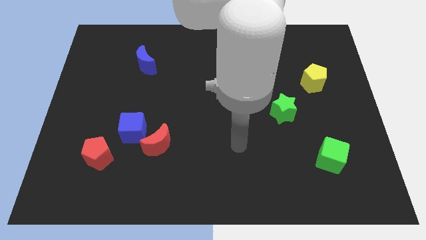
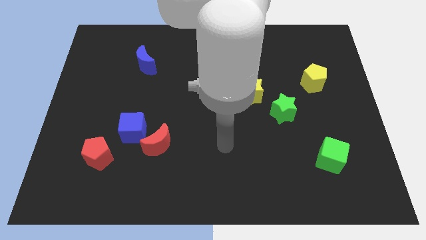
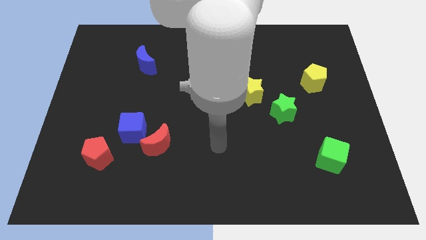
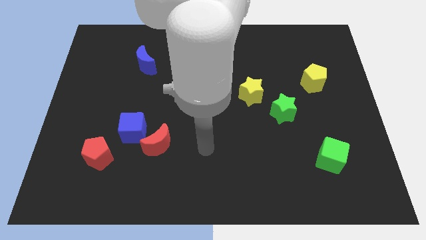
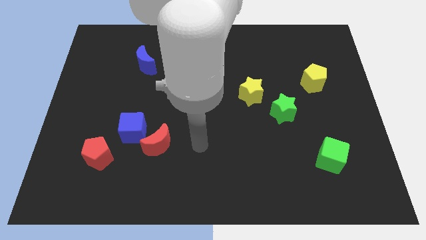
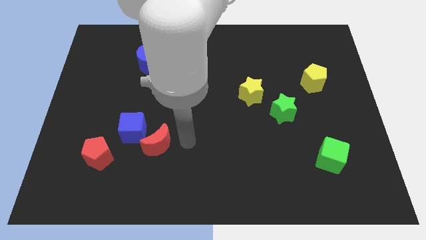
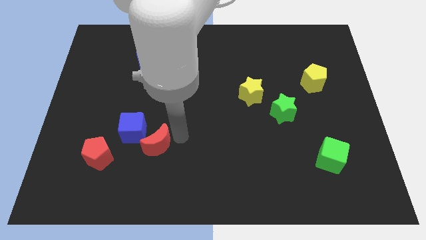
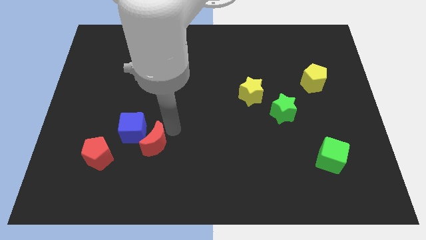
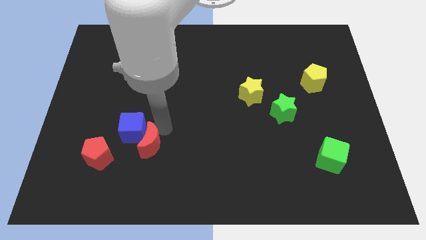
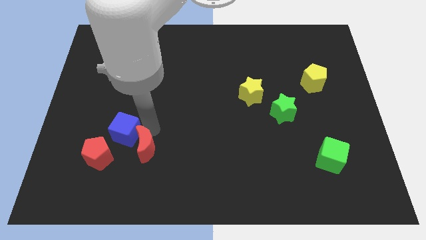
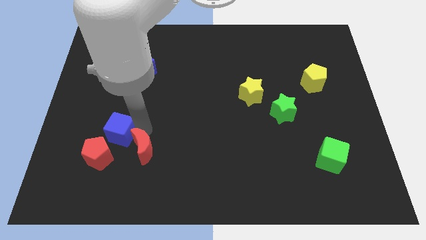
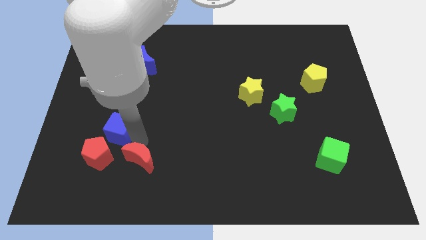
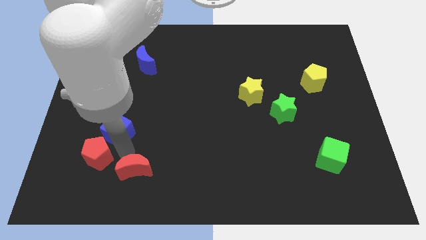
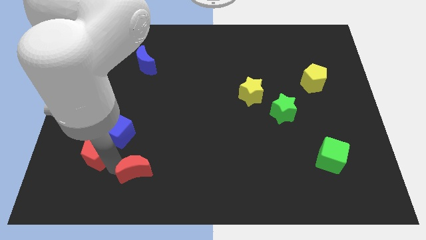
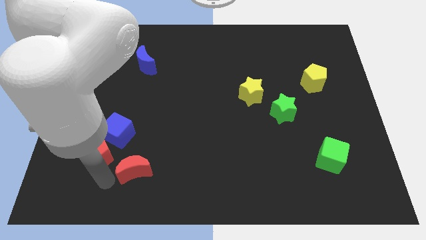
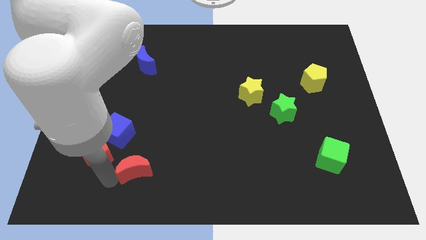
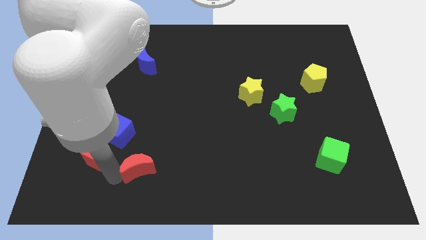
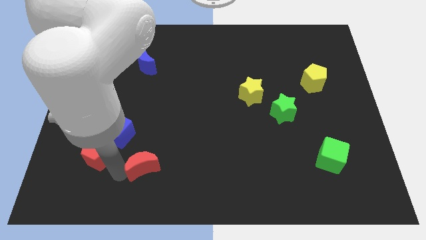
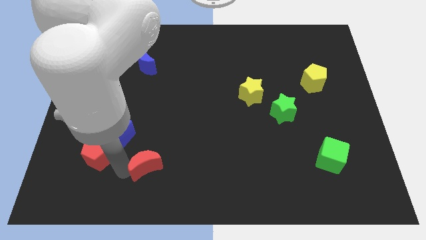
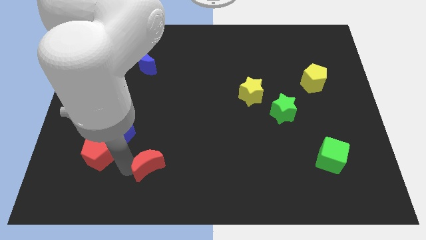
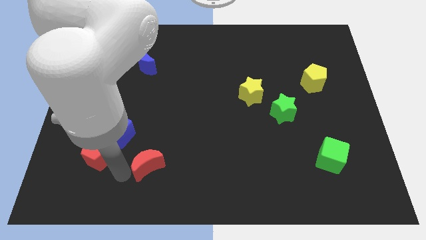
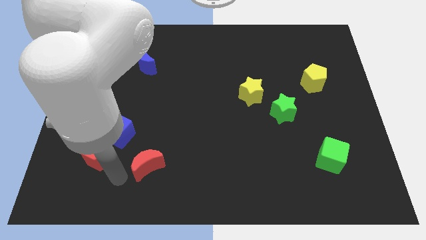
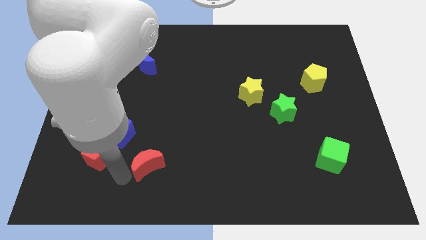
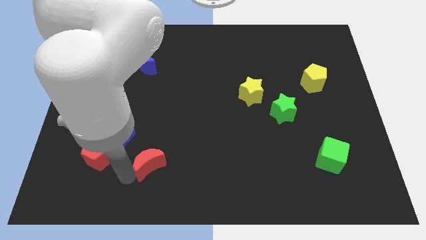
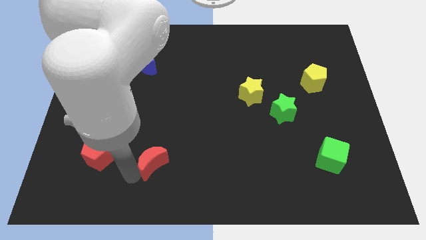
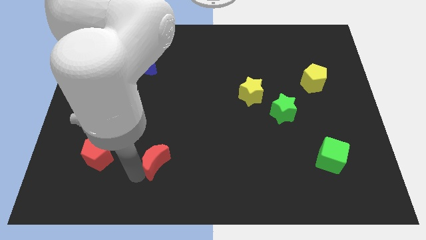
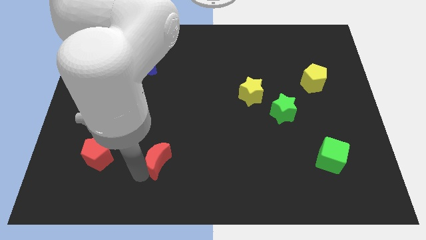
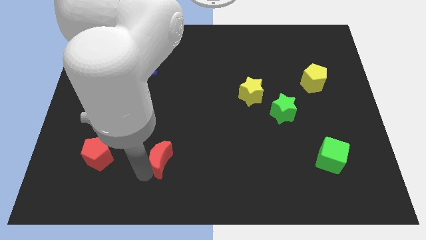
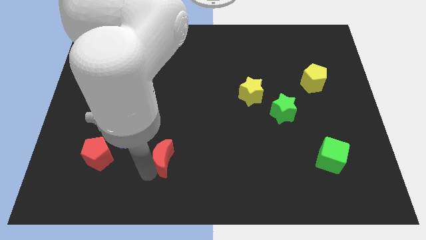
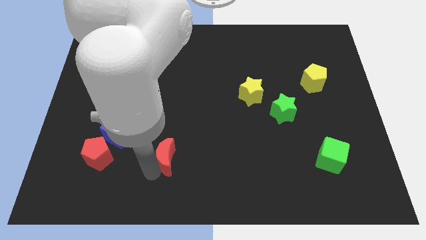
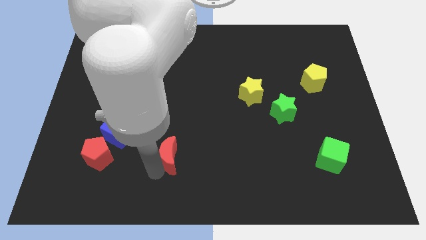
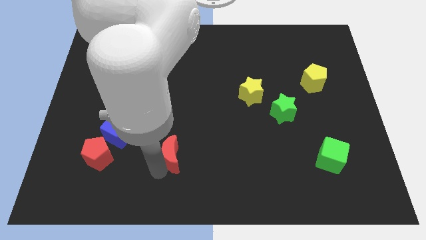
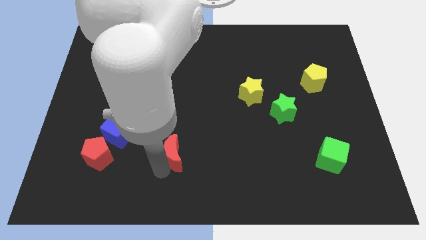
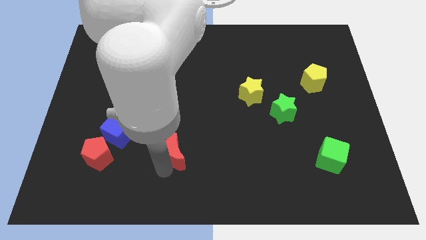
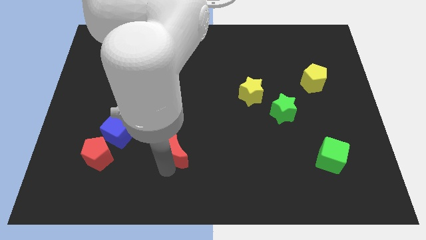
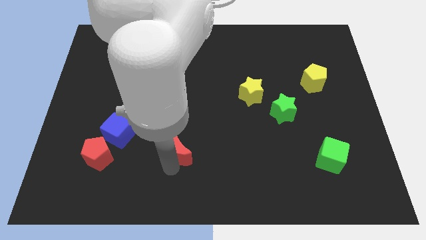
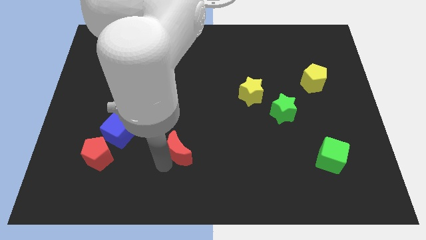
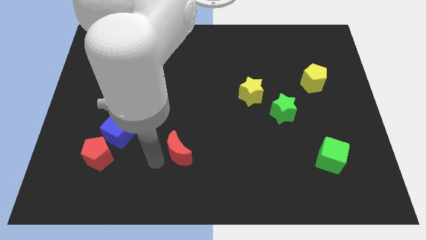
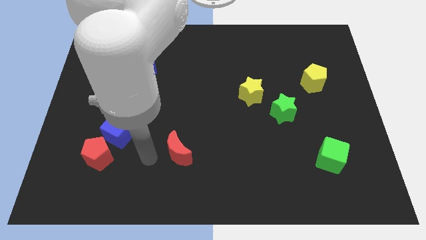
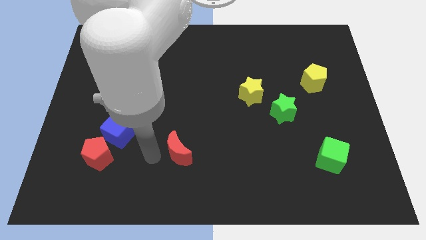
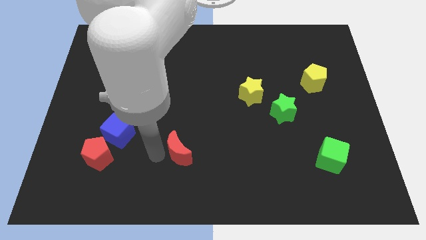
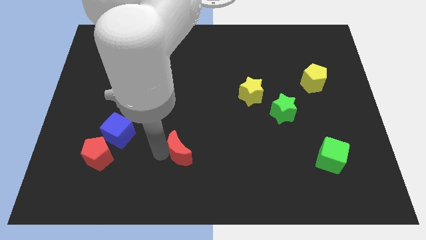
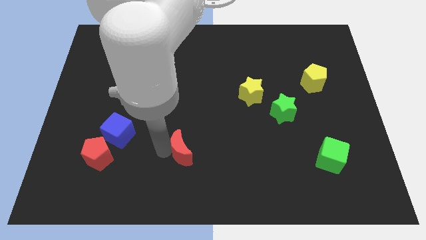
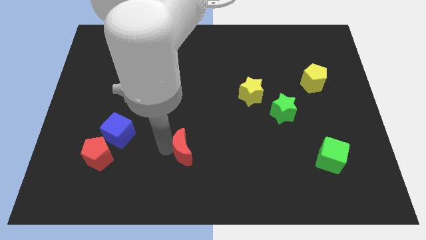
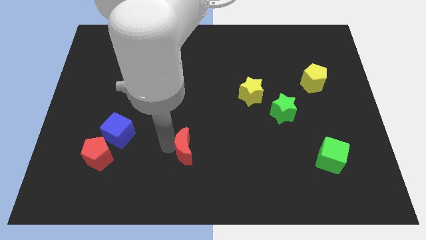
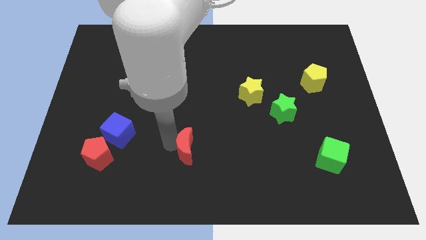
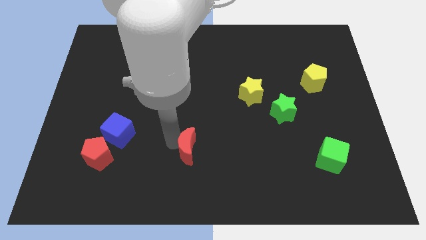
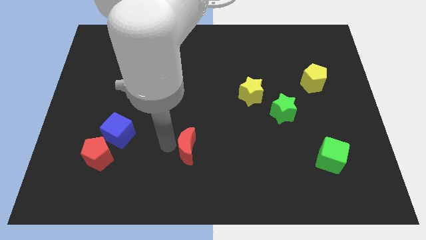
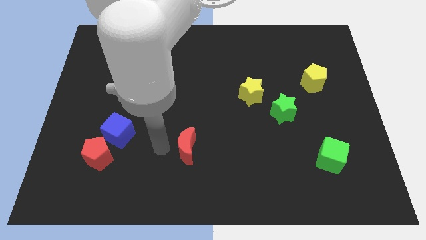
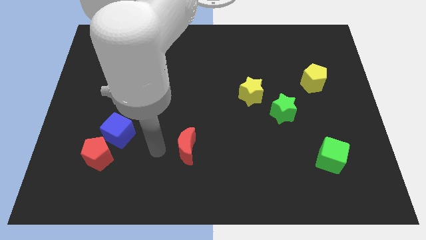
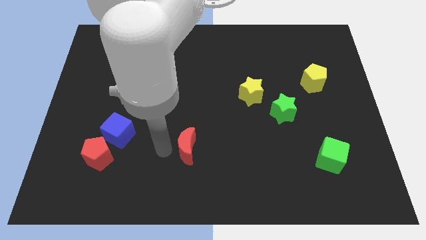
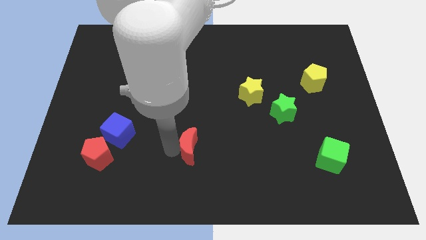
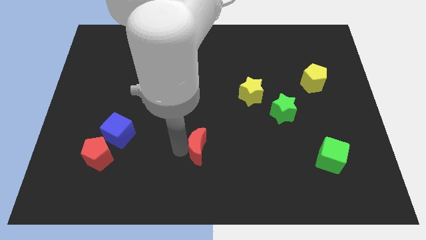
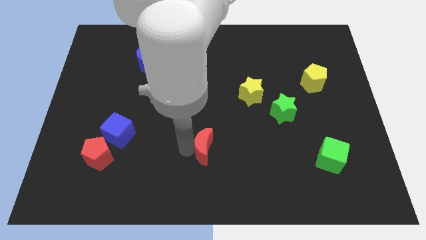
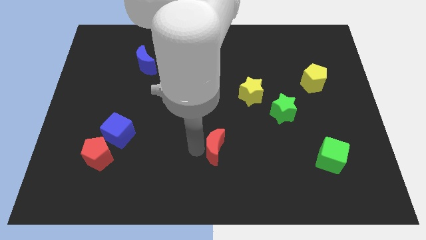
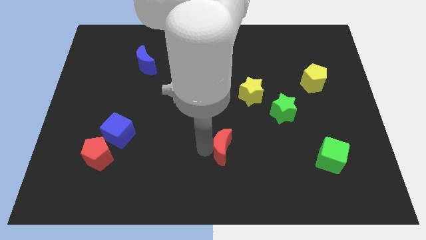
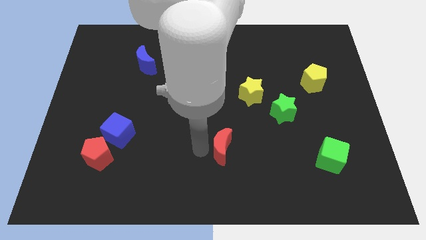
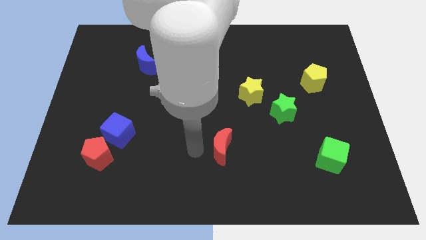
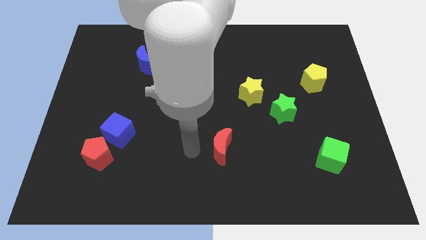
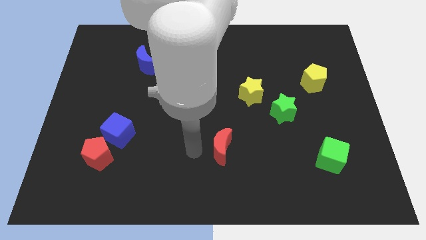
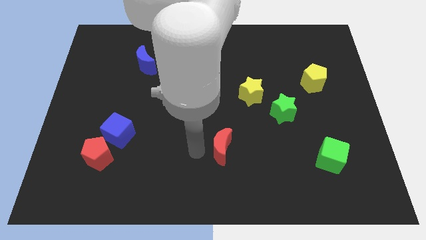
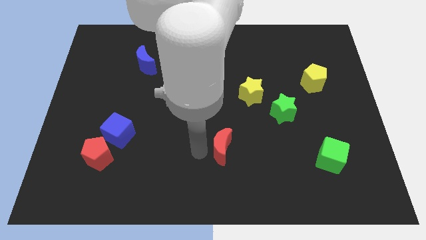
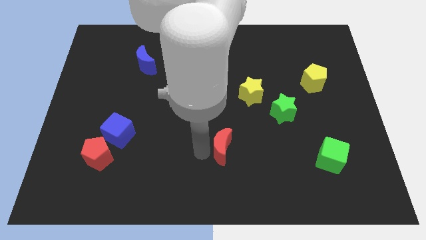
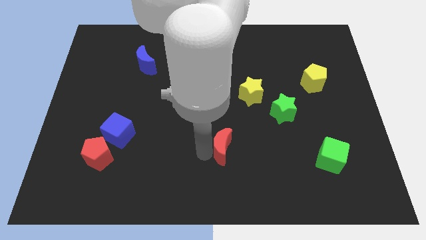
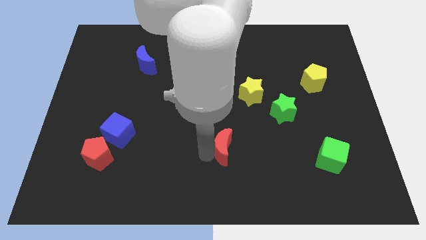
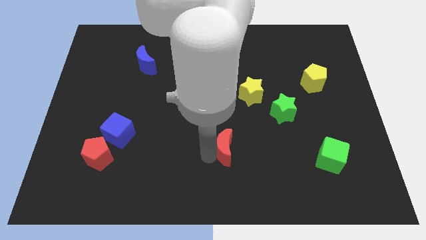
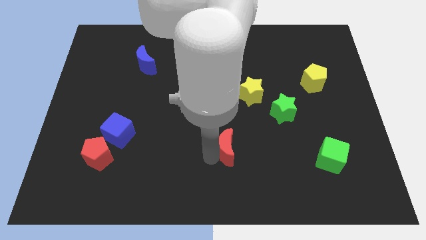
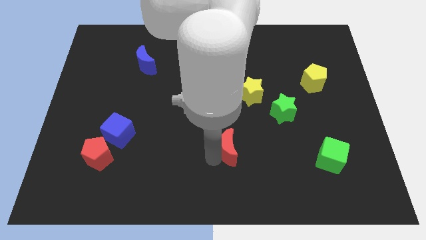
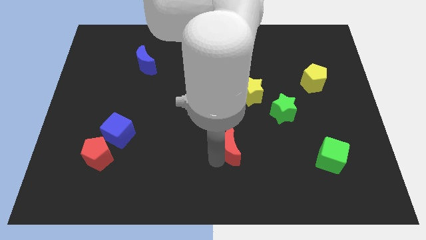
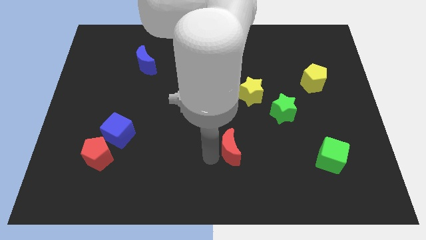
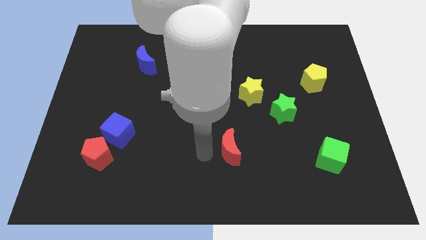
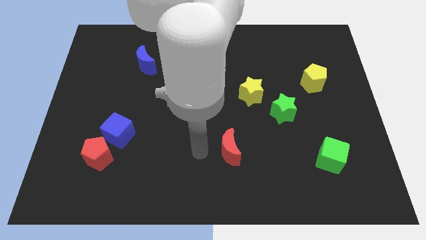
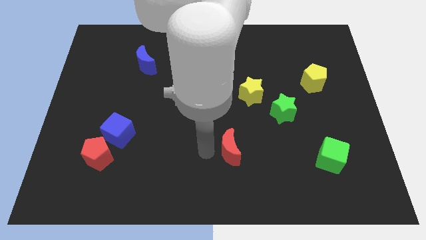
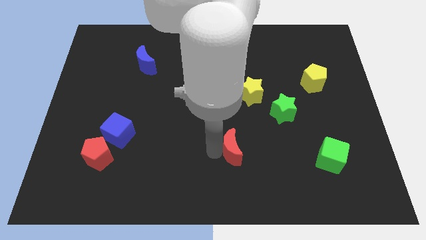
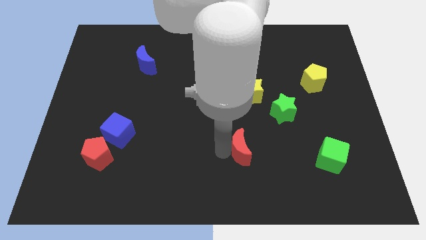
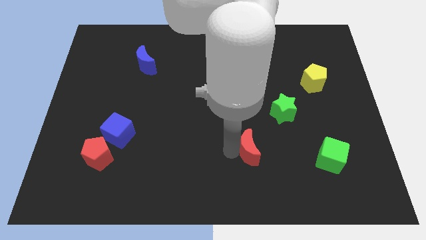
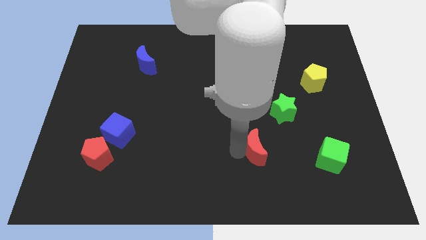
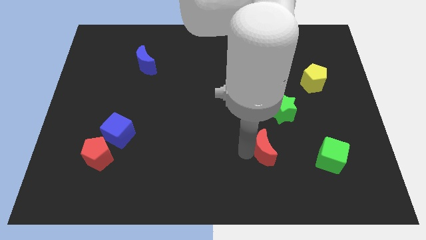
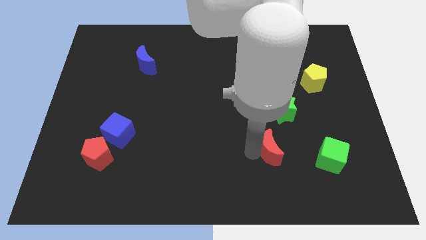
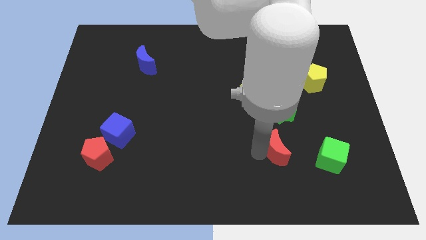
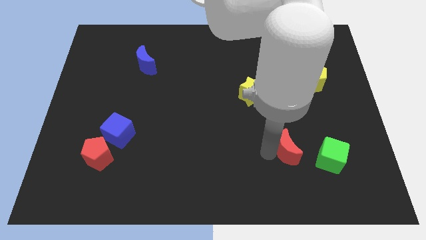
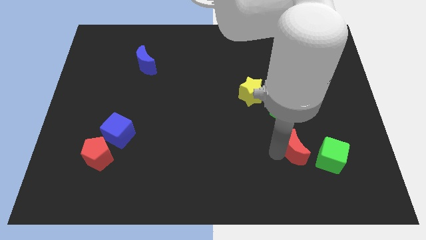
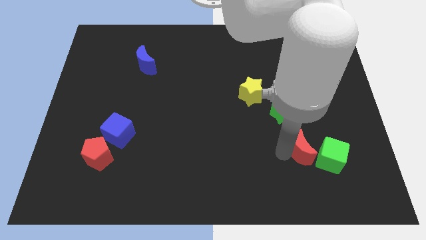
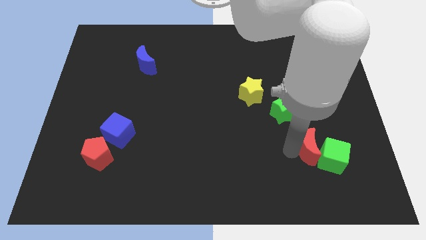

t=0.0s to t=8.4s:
move the red moon next to the green cube

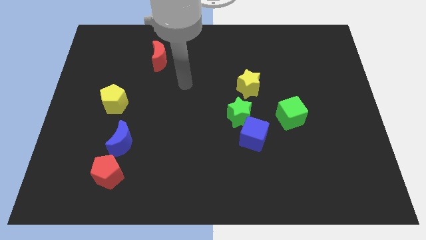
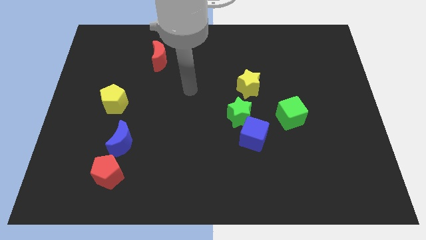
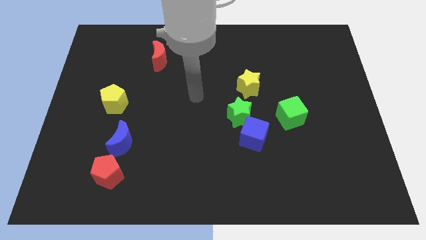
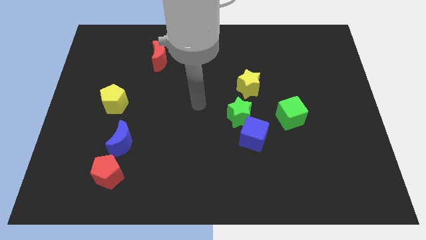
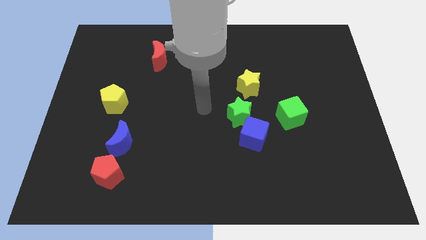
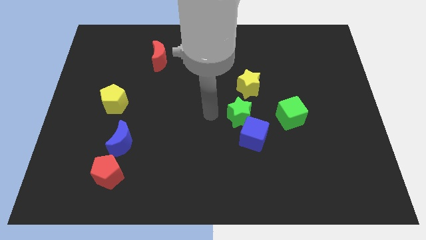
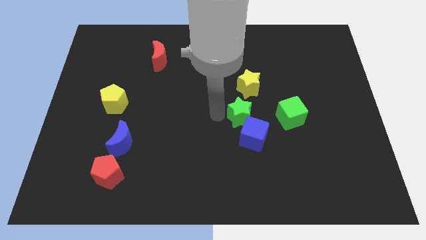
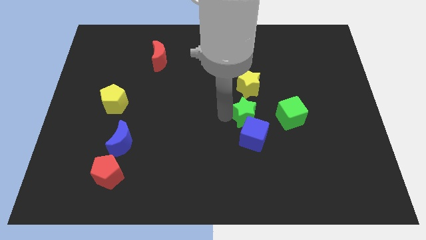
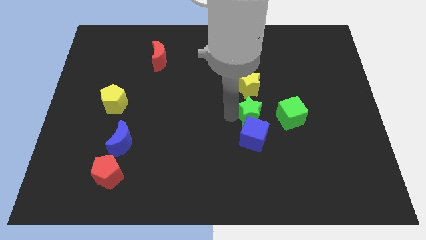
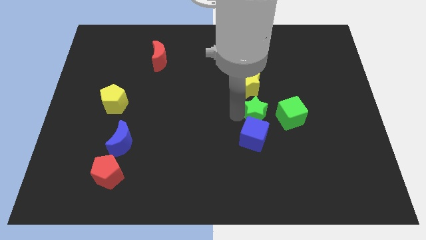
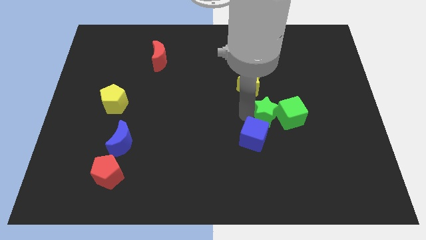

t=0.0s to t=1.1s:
push the green star close to the green cube
